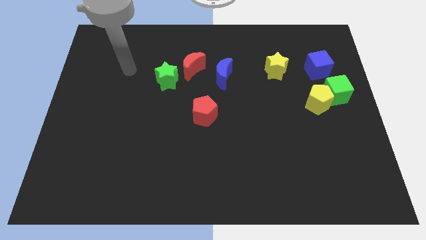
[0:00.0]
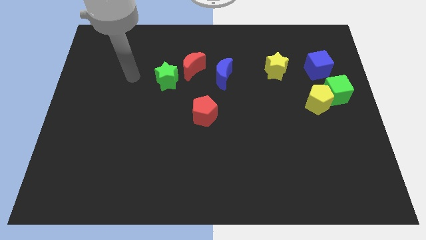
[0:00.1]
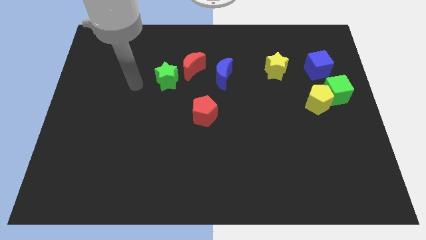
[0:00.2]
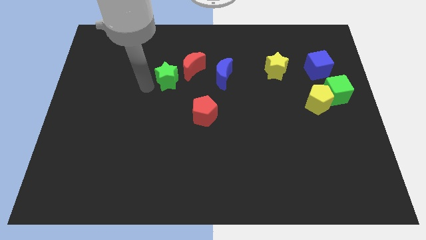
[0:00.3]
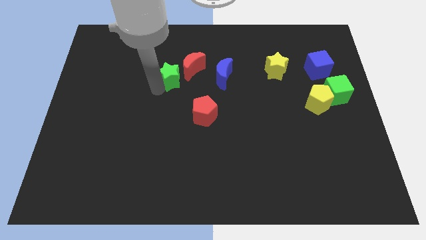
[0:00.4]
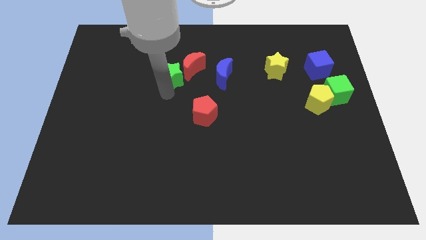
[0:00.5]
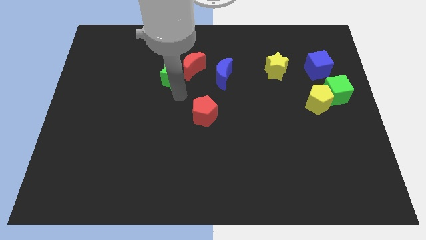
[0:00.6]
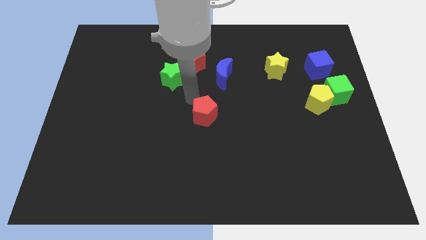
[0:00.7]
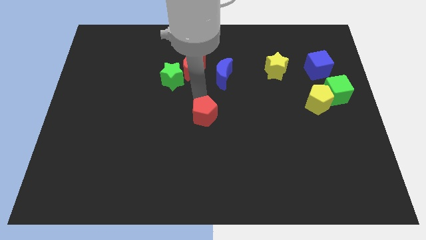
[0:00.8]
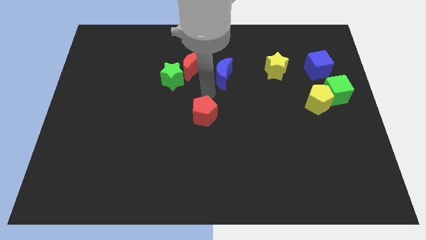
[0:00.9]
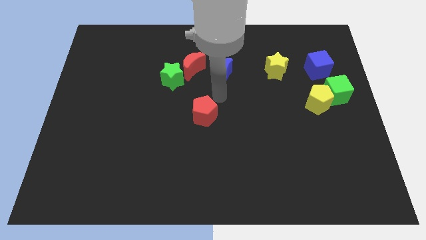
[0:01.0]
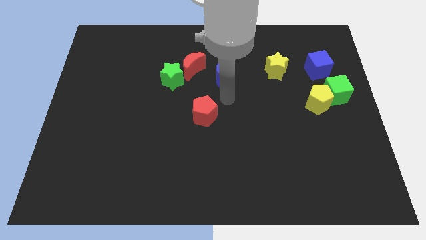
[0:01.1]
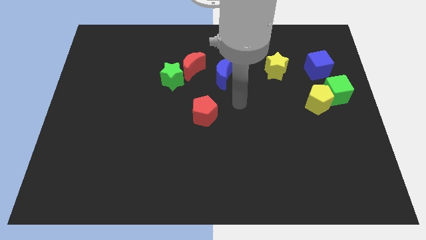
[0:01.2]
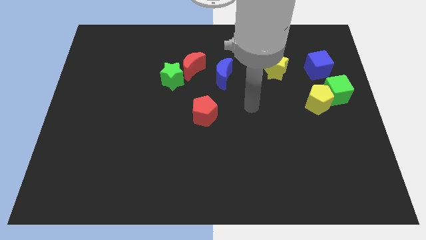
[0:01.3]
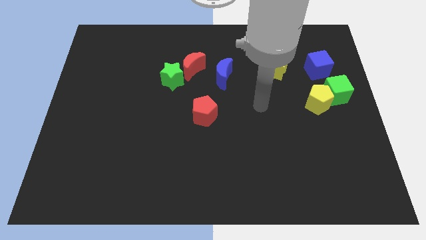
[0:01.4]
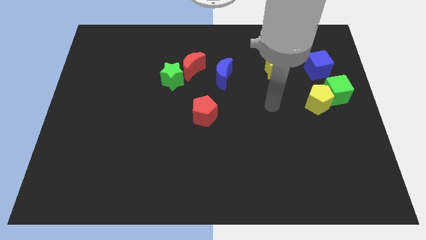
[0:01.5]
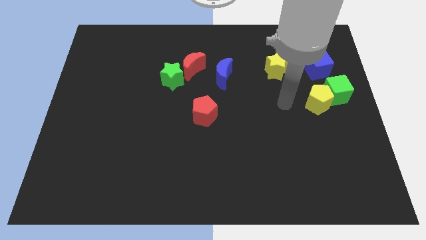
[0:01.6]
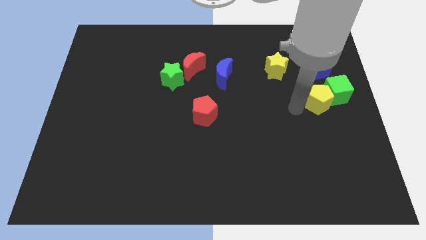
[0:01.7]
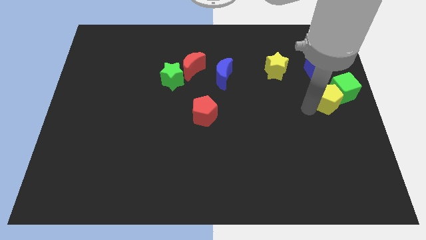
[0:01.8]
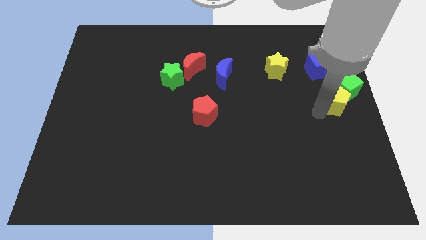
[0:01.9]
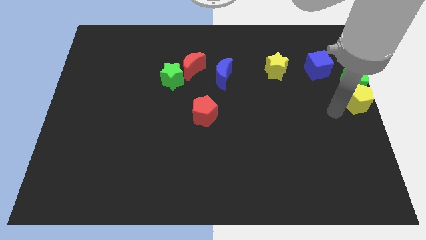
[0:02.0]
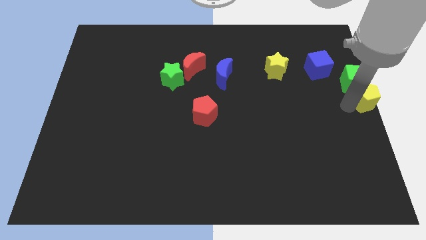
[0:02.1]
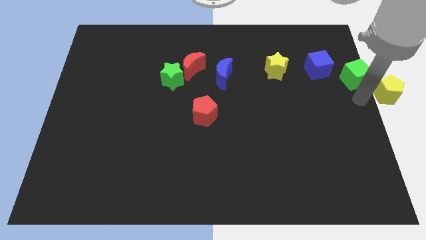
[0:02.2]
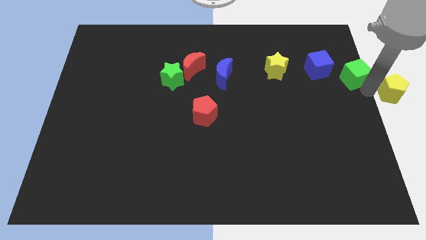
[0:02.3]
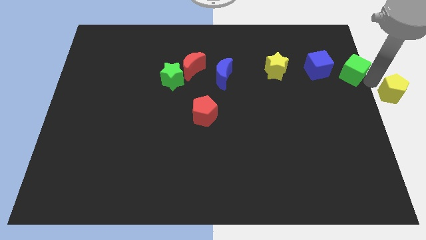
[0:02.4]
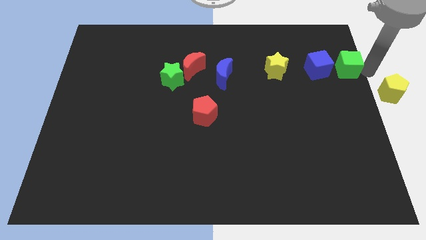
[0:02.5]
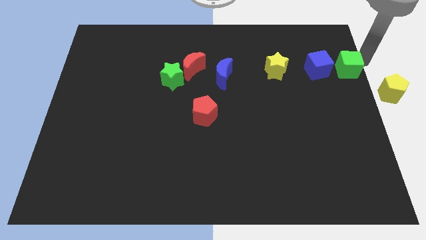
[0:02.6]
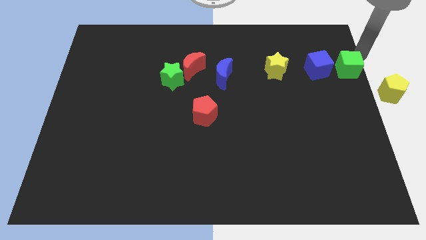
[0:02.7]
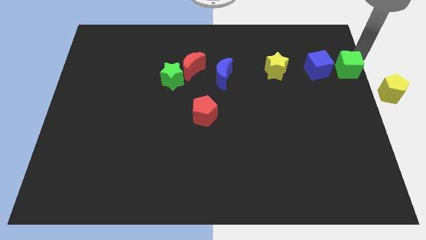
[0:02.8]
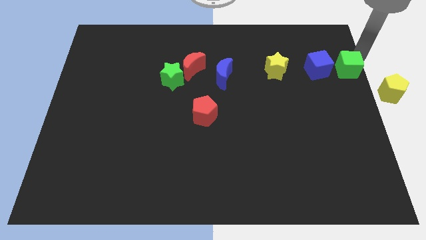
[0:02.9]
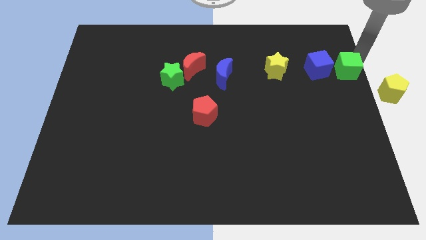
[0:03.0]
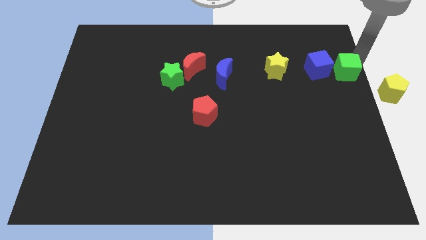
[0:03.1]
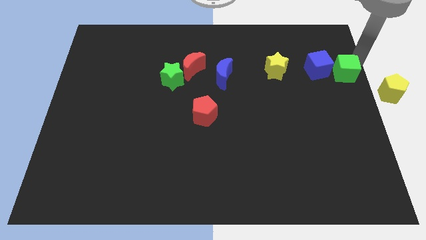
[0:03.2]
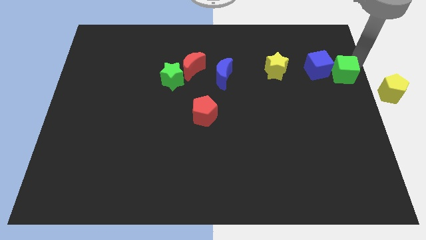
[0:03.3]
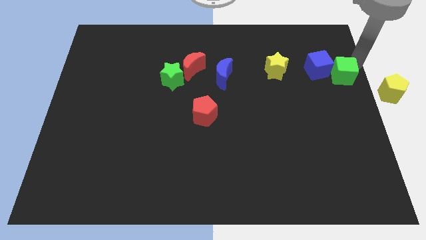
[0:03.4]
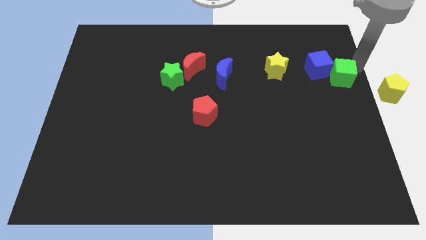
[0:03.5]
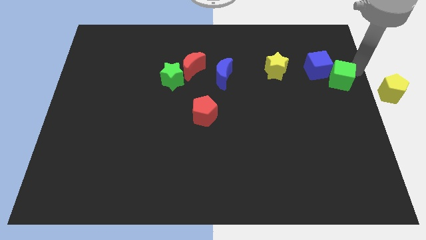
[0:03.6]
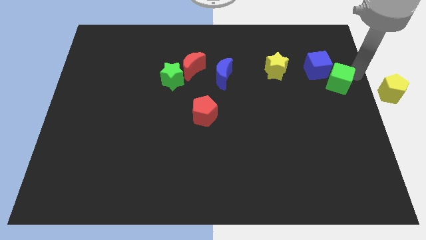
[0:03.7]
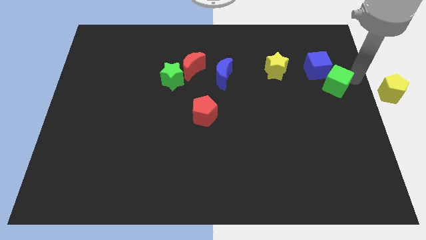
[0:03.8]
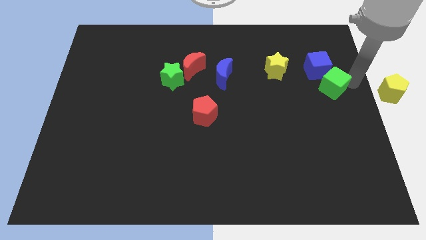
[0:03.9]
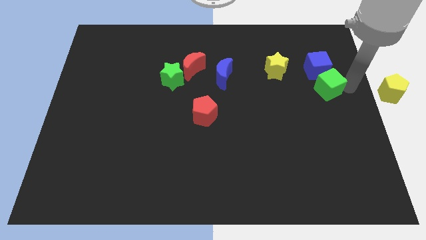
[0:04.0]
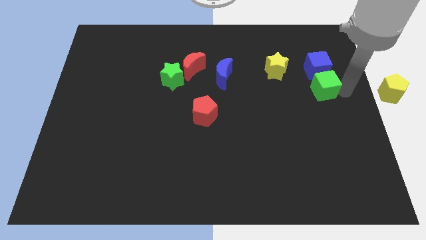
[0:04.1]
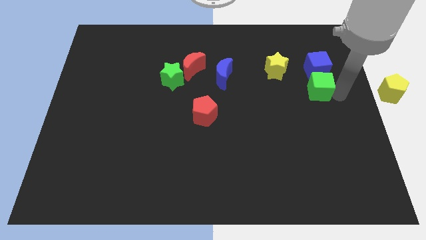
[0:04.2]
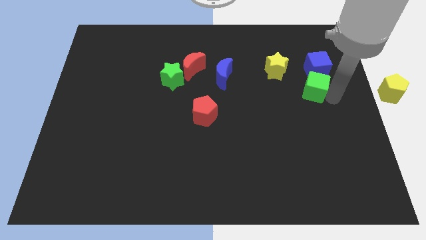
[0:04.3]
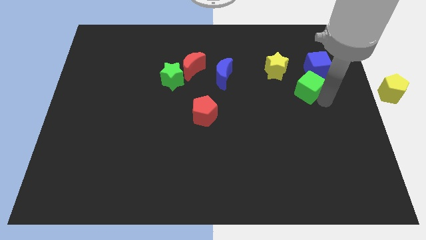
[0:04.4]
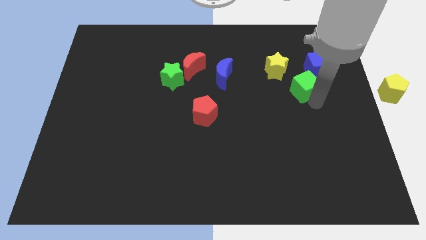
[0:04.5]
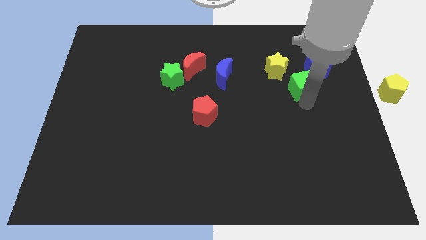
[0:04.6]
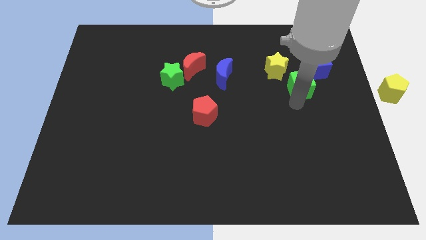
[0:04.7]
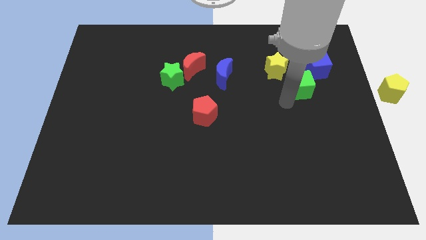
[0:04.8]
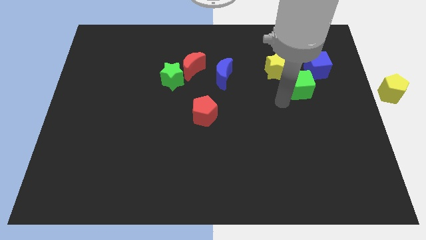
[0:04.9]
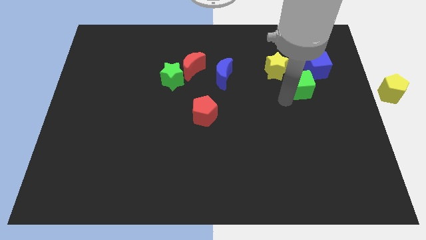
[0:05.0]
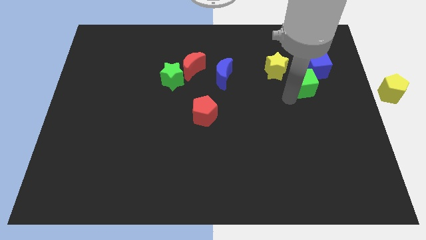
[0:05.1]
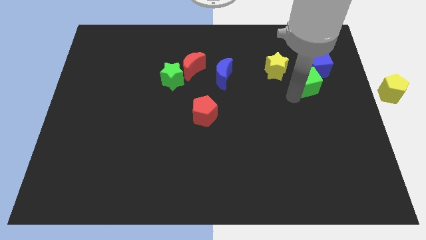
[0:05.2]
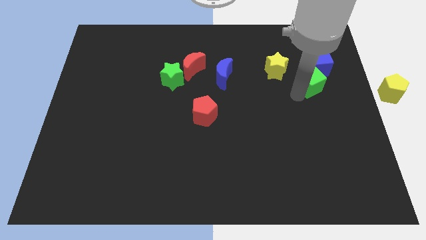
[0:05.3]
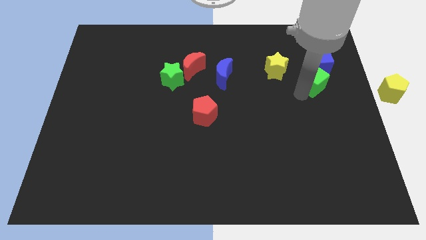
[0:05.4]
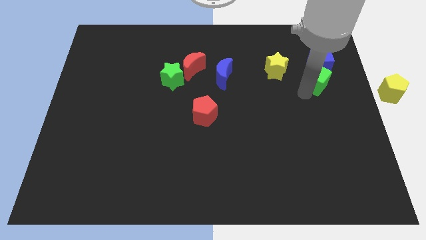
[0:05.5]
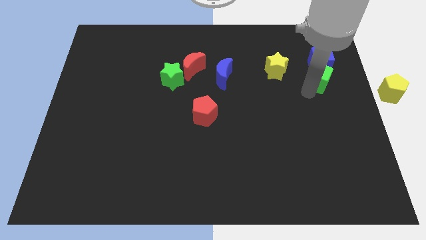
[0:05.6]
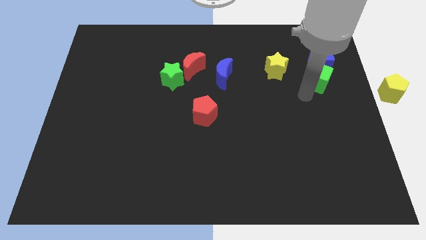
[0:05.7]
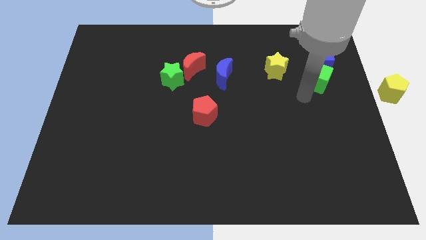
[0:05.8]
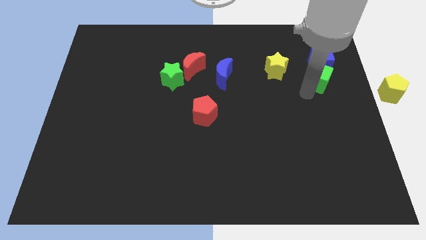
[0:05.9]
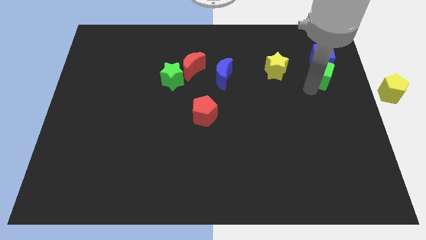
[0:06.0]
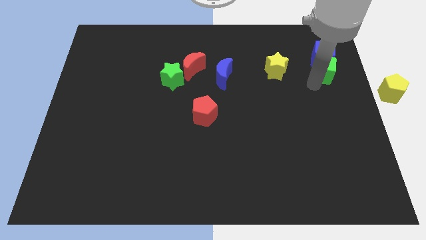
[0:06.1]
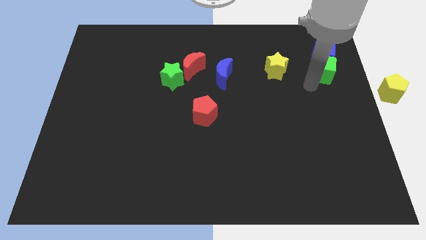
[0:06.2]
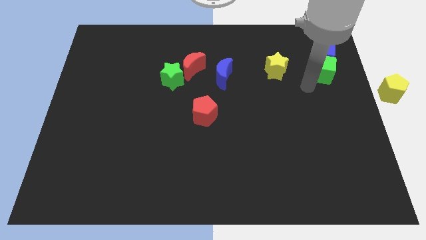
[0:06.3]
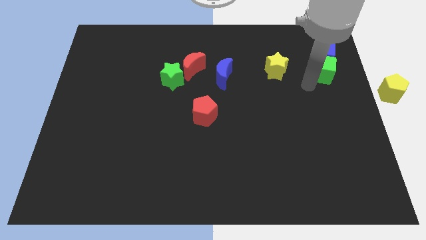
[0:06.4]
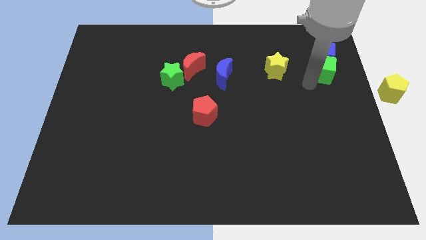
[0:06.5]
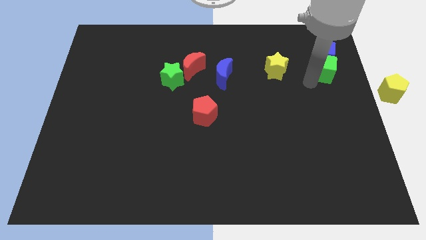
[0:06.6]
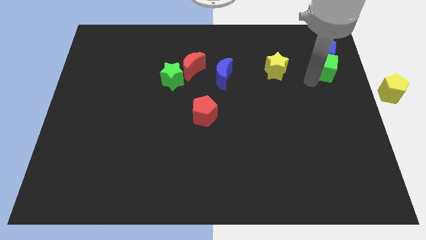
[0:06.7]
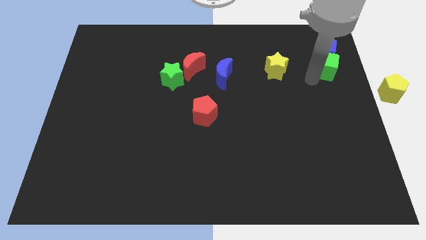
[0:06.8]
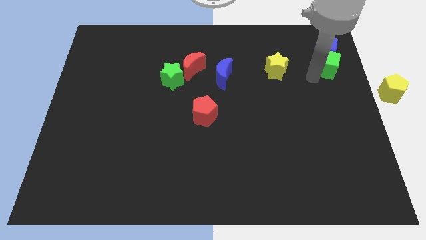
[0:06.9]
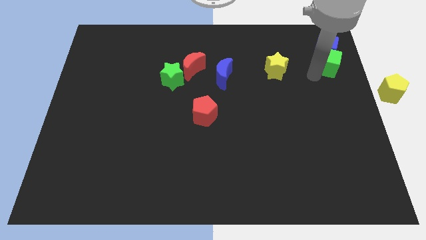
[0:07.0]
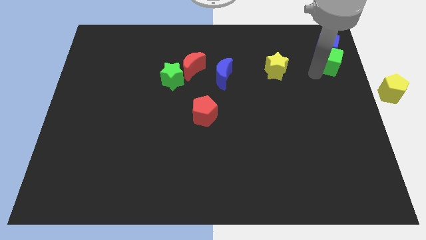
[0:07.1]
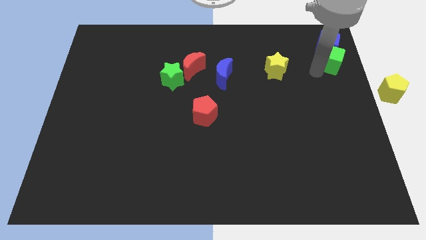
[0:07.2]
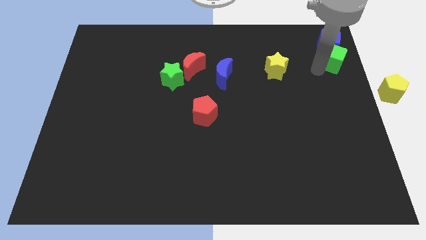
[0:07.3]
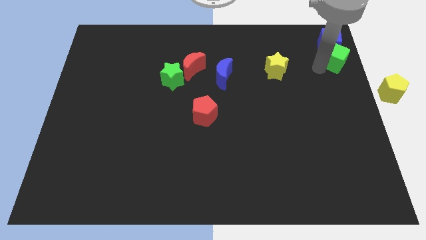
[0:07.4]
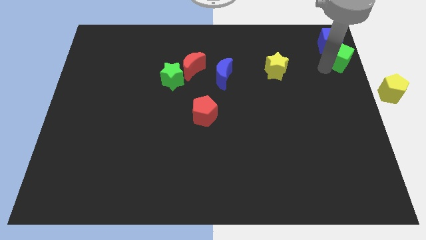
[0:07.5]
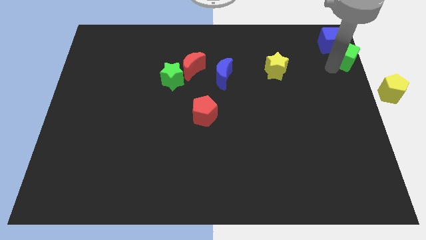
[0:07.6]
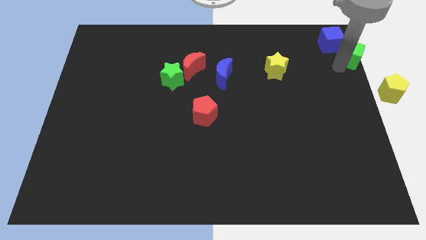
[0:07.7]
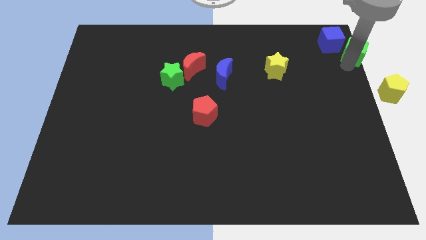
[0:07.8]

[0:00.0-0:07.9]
push the green cube to the top right of the board

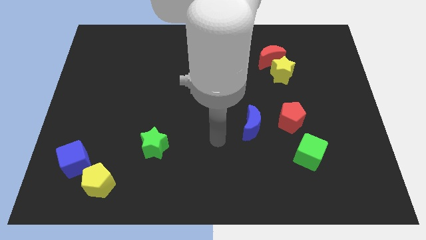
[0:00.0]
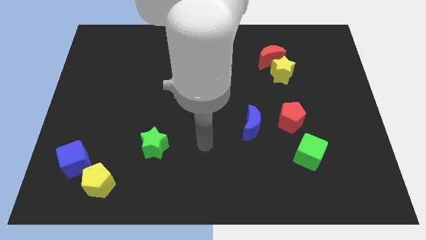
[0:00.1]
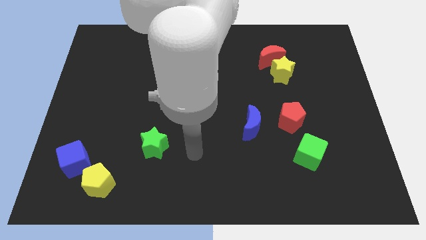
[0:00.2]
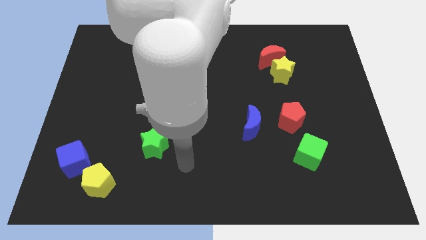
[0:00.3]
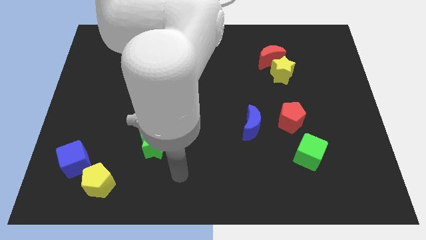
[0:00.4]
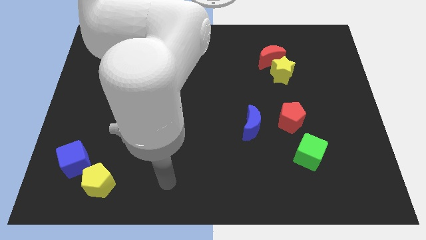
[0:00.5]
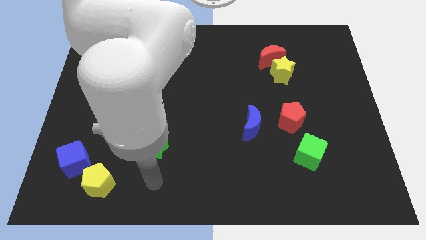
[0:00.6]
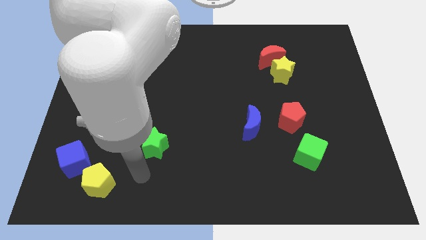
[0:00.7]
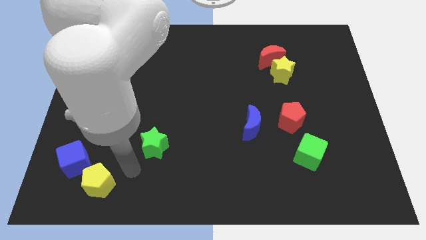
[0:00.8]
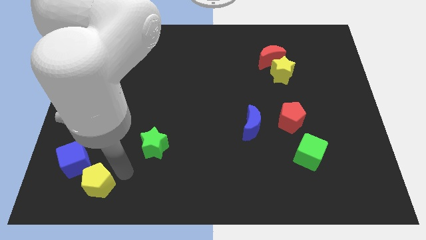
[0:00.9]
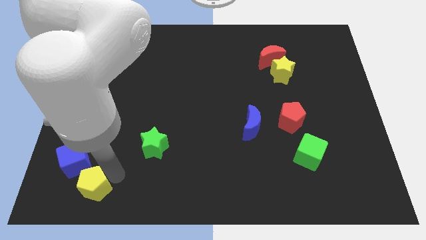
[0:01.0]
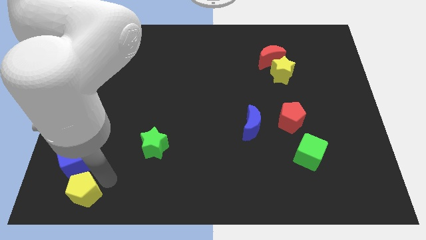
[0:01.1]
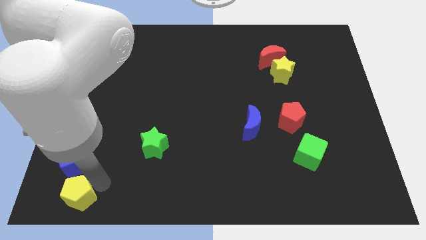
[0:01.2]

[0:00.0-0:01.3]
move the yellow pentagon to the bottom left of the board
